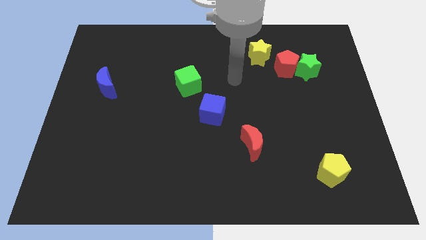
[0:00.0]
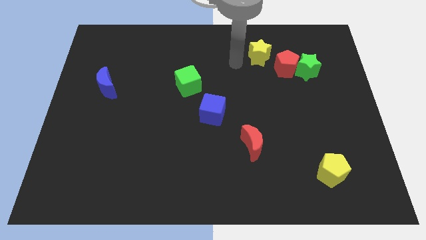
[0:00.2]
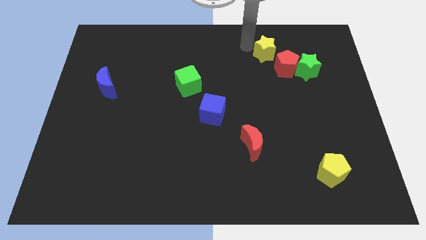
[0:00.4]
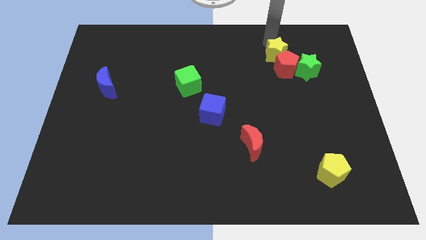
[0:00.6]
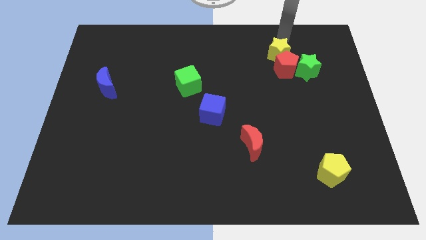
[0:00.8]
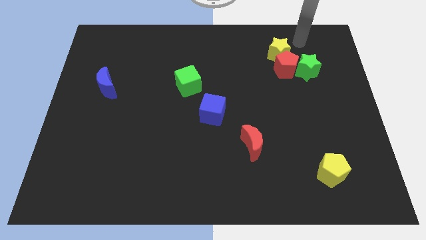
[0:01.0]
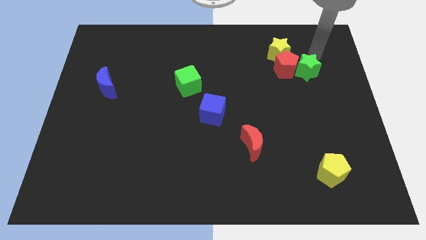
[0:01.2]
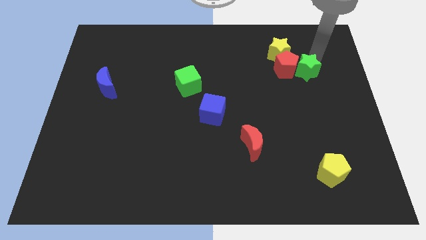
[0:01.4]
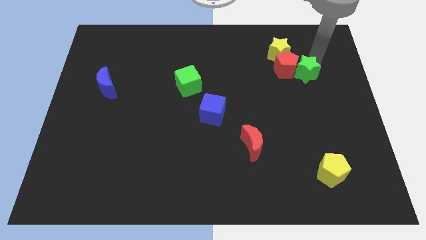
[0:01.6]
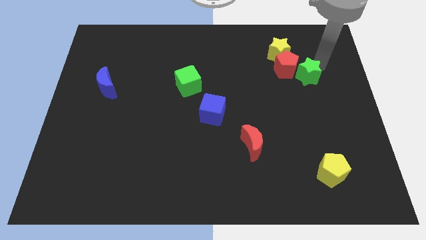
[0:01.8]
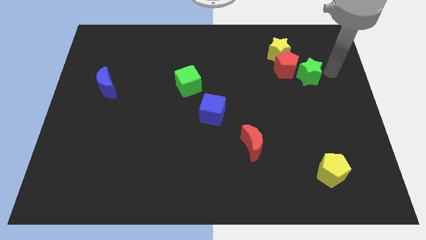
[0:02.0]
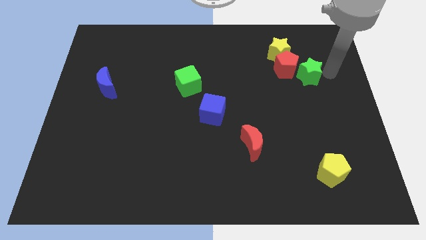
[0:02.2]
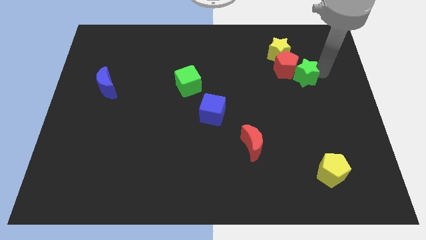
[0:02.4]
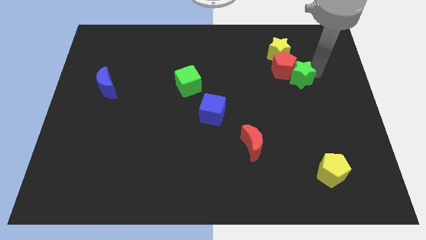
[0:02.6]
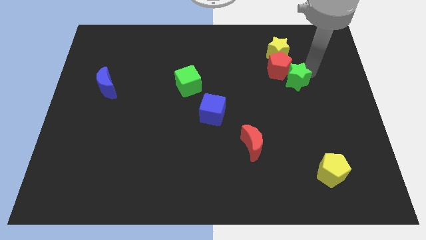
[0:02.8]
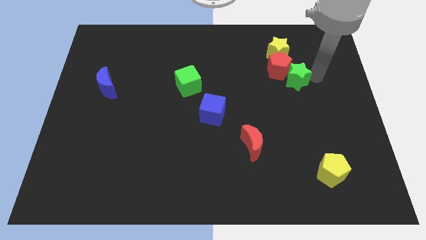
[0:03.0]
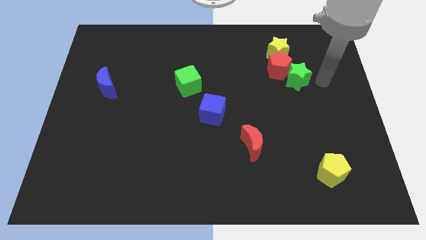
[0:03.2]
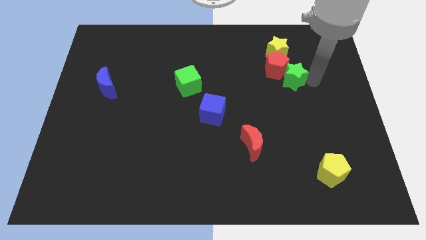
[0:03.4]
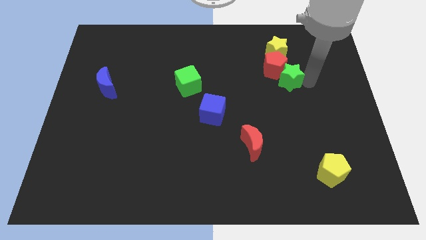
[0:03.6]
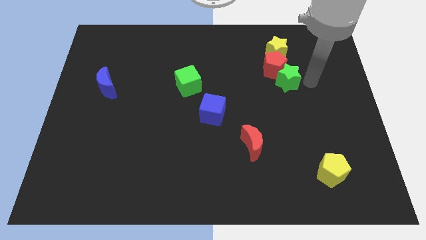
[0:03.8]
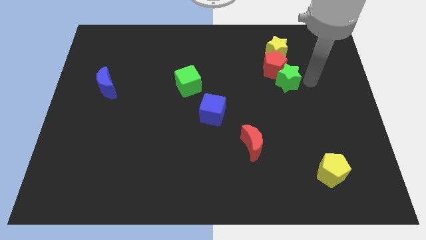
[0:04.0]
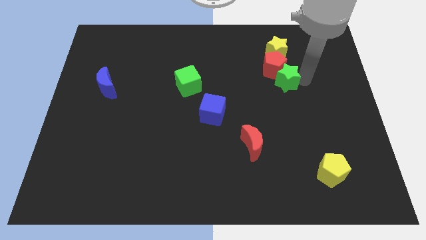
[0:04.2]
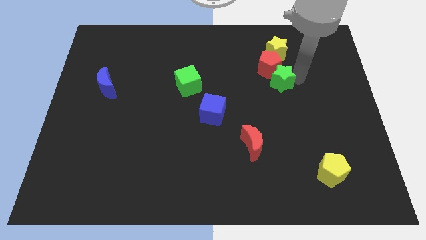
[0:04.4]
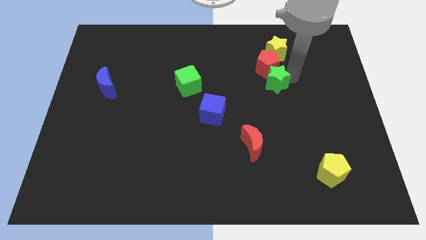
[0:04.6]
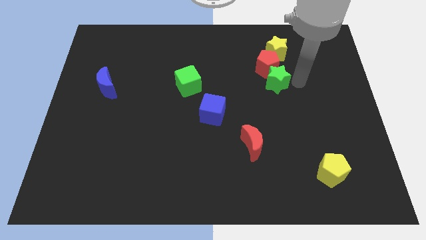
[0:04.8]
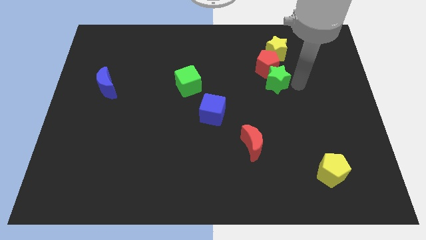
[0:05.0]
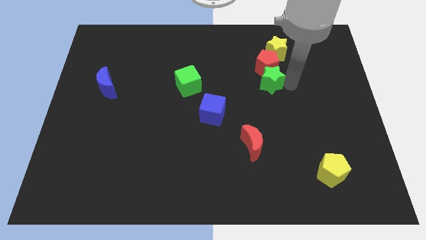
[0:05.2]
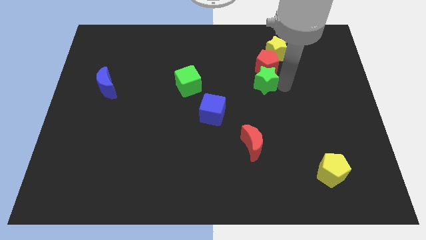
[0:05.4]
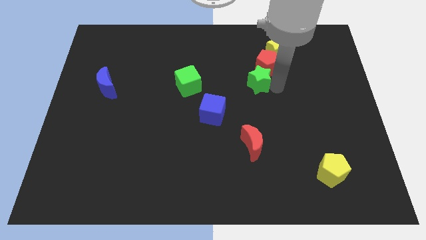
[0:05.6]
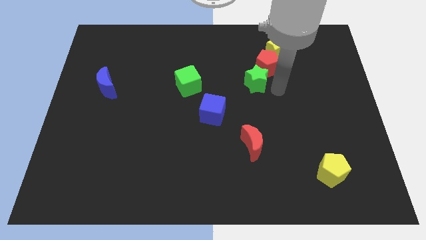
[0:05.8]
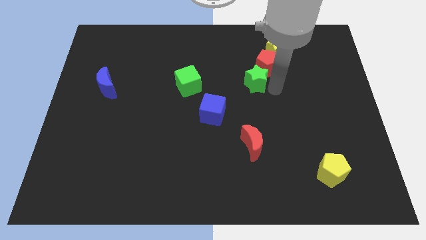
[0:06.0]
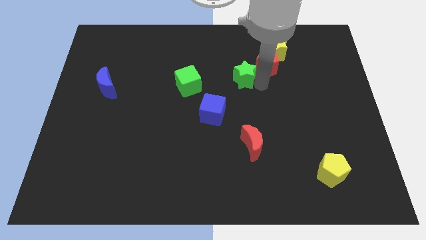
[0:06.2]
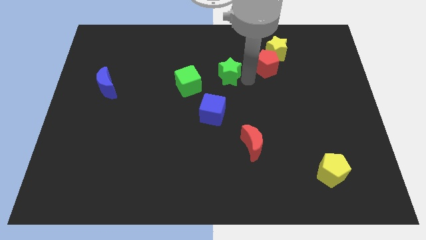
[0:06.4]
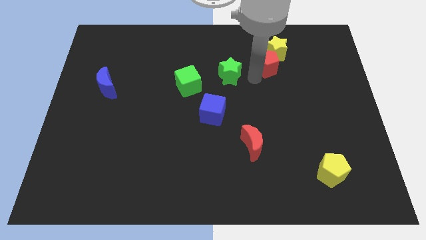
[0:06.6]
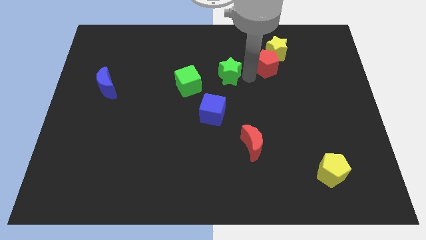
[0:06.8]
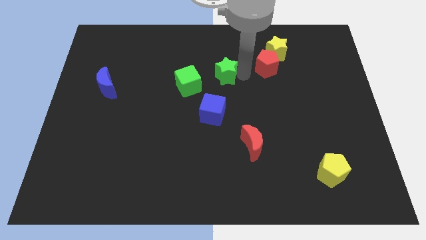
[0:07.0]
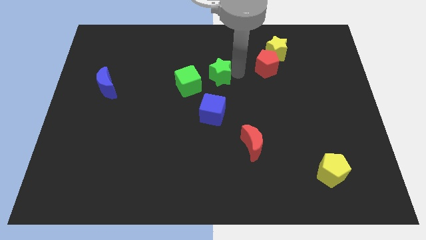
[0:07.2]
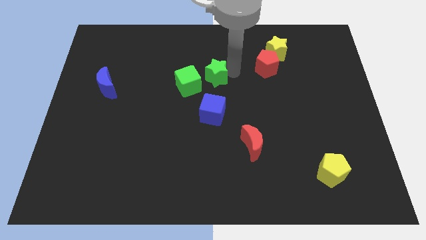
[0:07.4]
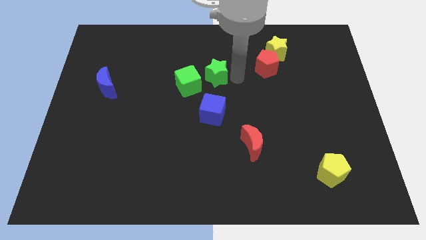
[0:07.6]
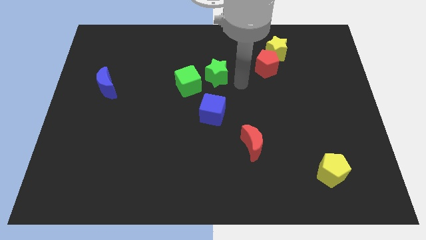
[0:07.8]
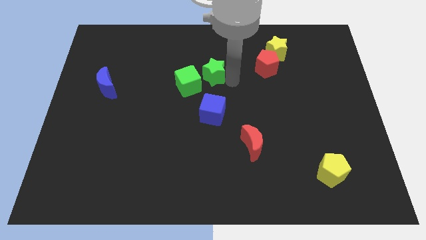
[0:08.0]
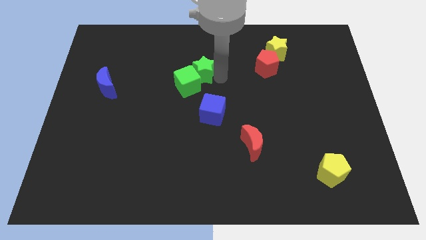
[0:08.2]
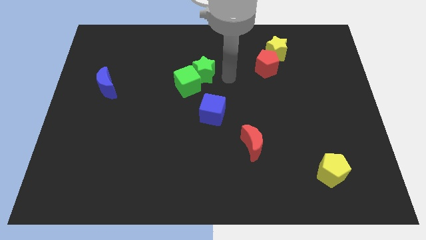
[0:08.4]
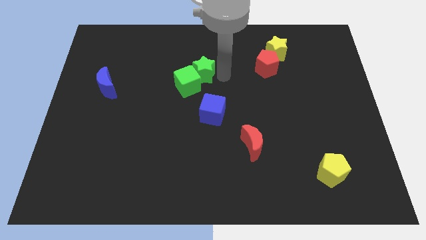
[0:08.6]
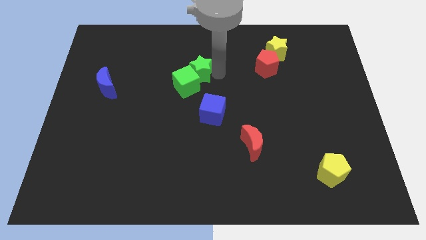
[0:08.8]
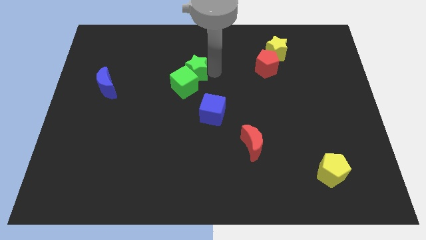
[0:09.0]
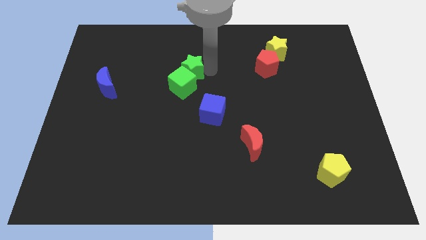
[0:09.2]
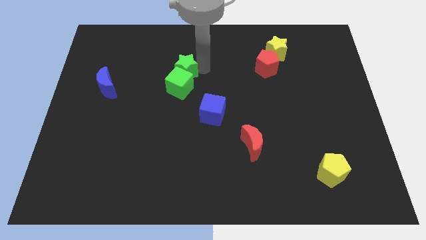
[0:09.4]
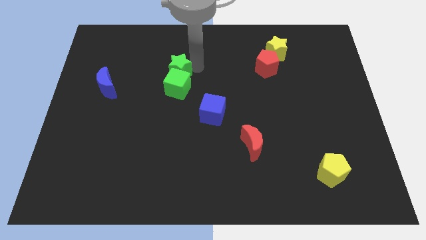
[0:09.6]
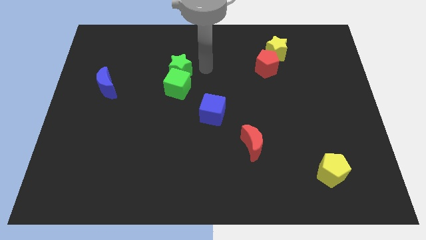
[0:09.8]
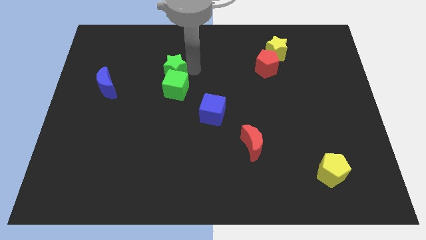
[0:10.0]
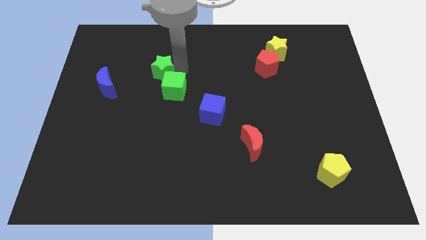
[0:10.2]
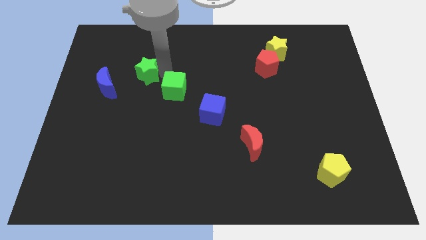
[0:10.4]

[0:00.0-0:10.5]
slide the green star to the top right side of the blue moon

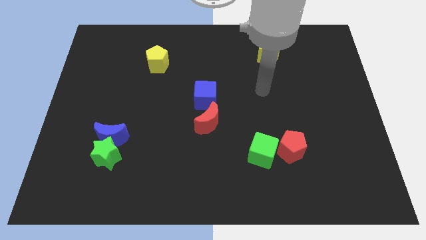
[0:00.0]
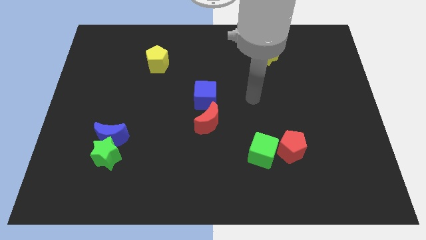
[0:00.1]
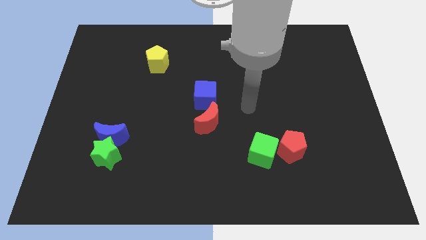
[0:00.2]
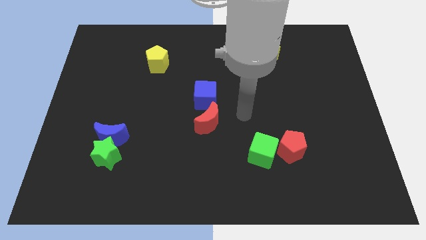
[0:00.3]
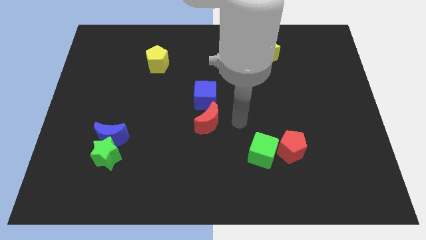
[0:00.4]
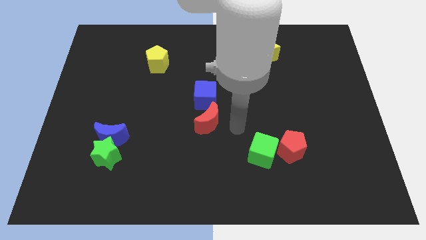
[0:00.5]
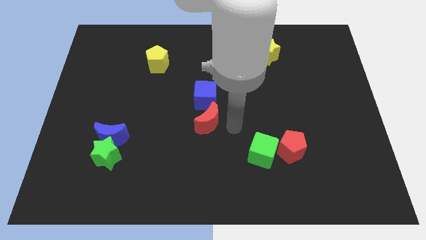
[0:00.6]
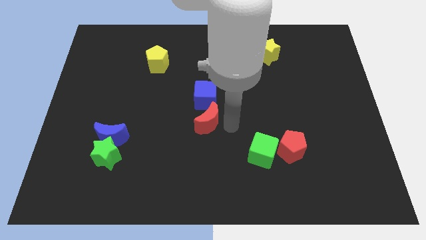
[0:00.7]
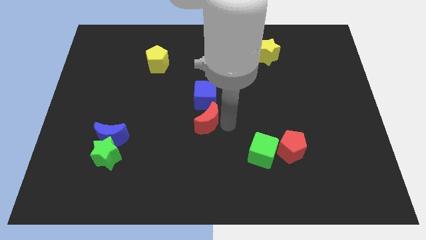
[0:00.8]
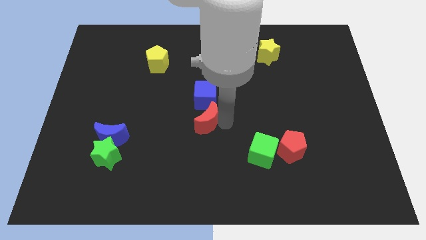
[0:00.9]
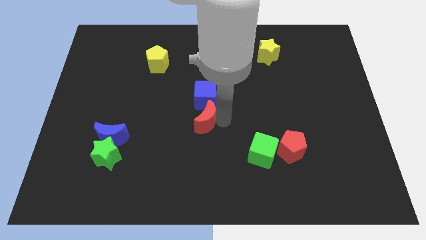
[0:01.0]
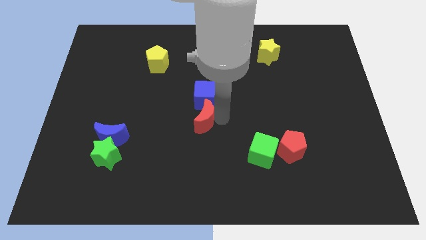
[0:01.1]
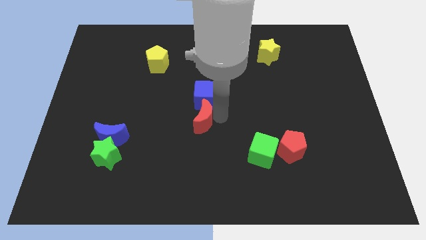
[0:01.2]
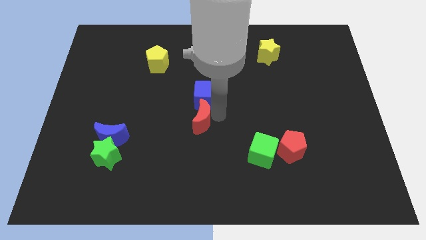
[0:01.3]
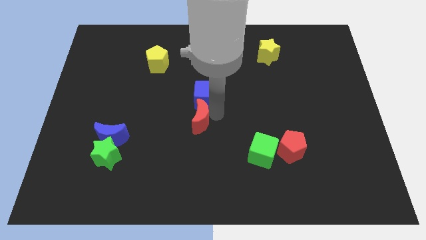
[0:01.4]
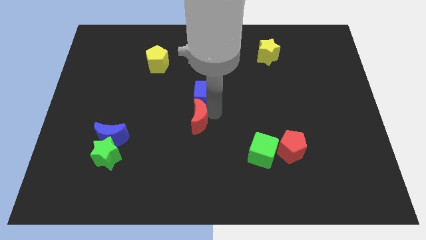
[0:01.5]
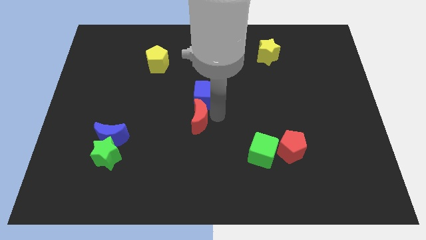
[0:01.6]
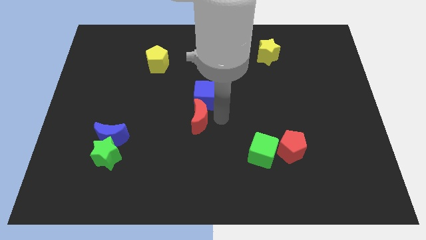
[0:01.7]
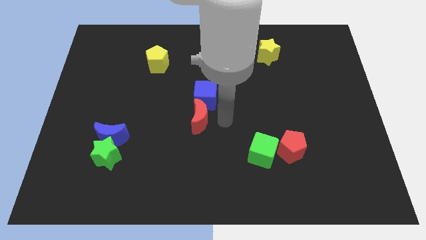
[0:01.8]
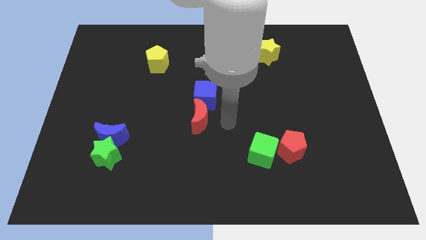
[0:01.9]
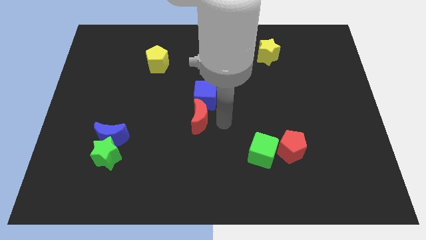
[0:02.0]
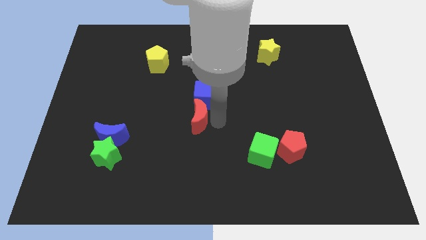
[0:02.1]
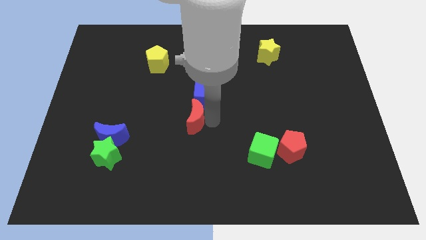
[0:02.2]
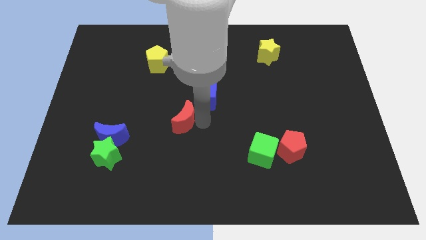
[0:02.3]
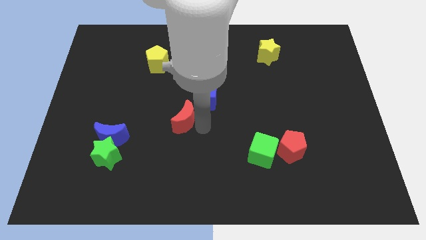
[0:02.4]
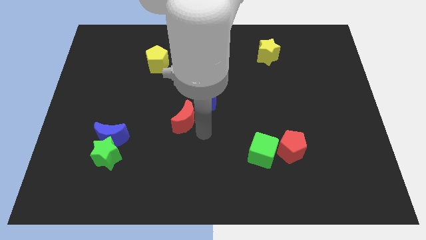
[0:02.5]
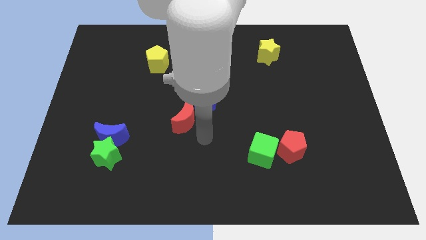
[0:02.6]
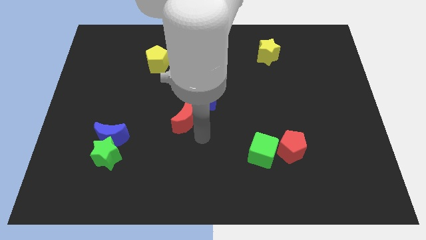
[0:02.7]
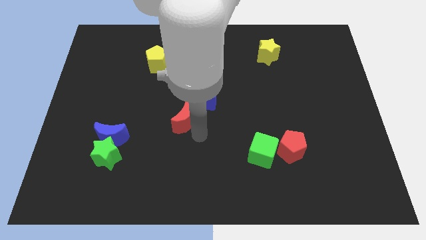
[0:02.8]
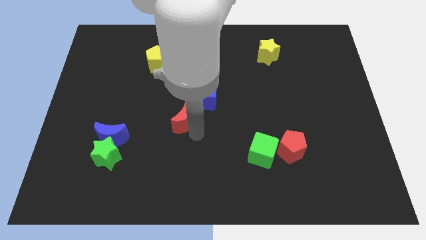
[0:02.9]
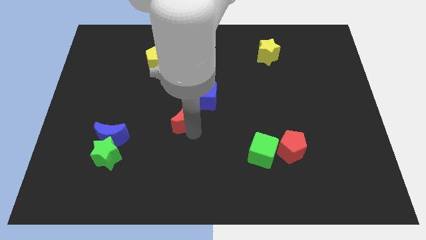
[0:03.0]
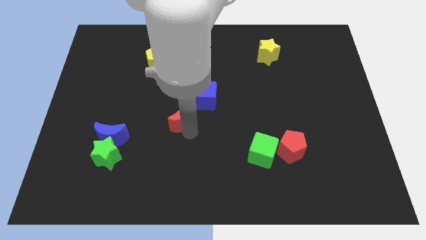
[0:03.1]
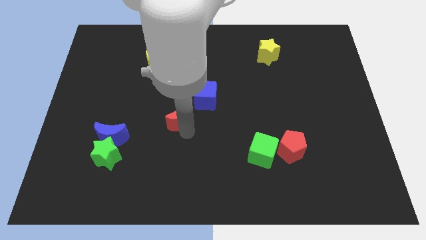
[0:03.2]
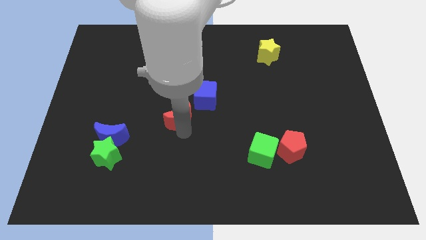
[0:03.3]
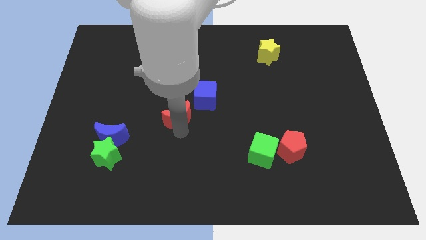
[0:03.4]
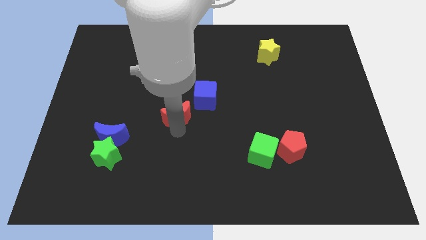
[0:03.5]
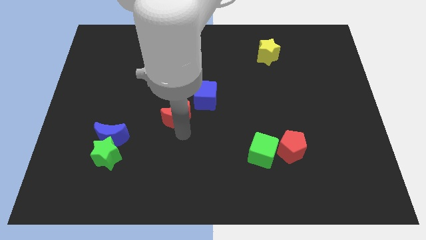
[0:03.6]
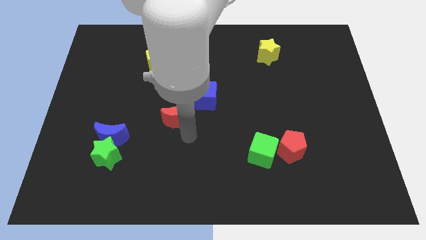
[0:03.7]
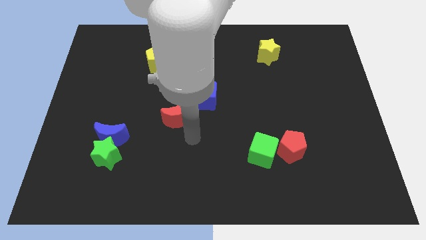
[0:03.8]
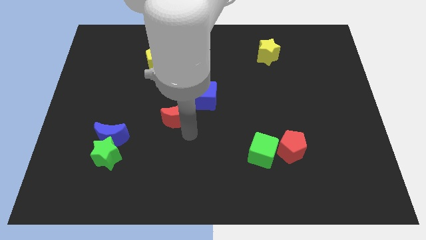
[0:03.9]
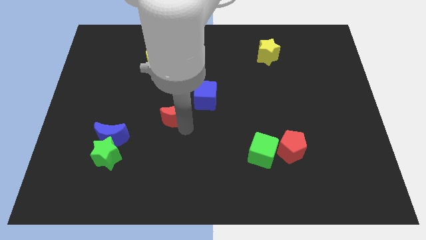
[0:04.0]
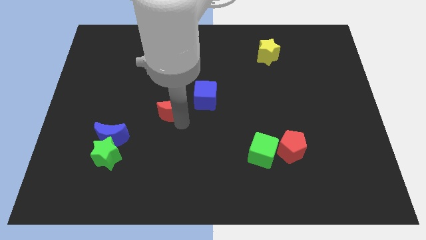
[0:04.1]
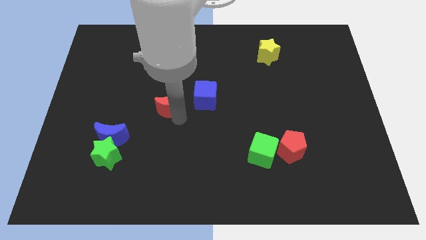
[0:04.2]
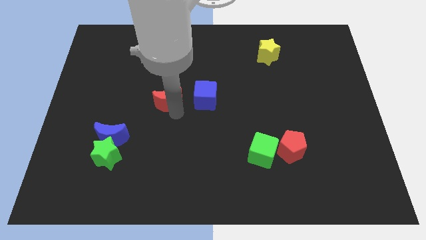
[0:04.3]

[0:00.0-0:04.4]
slide the red moon below the yellow pentagon
